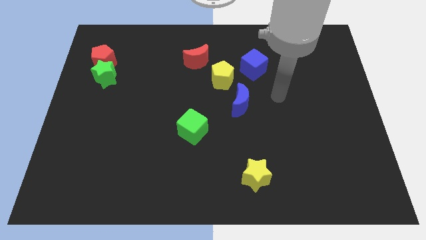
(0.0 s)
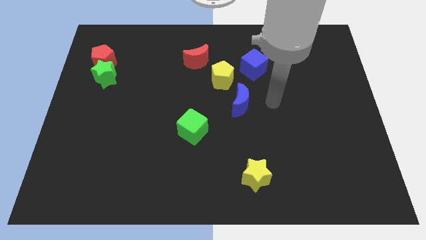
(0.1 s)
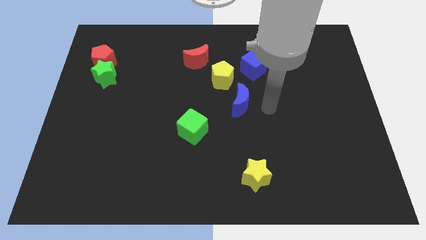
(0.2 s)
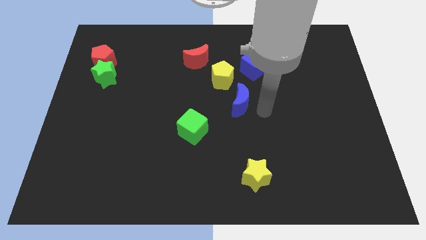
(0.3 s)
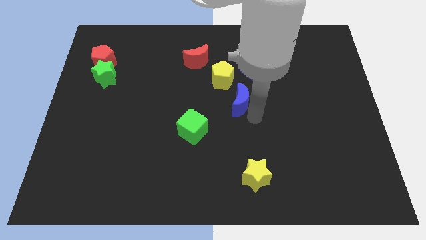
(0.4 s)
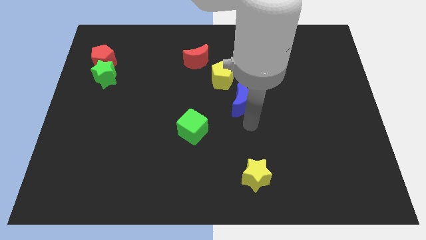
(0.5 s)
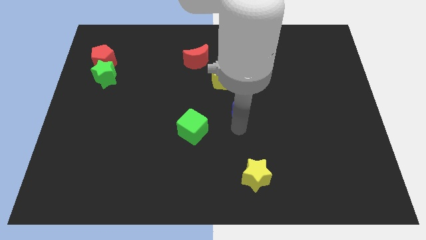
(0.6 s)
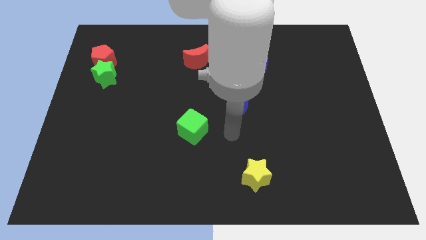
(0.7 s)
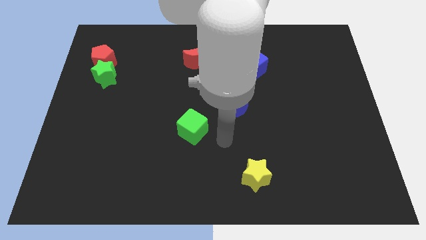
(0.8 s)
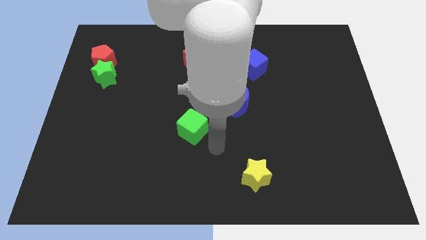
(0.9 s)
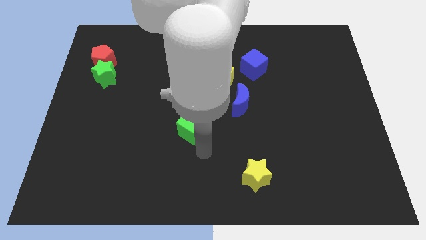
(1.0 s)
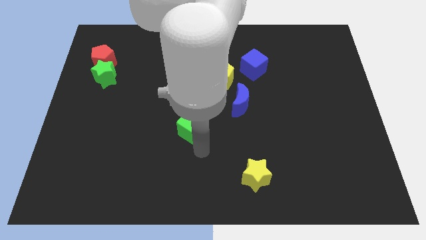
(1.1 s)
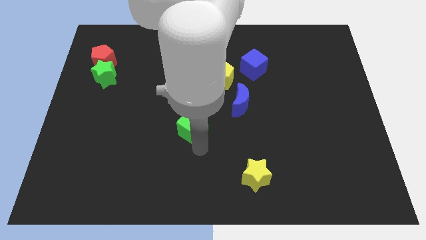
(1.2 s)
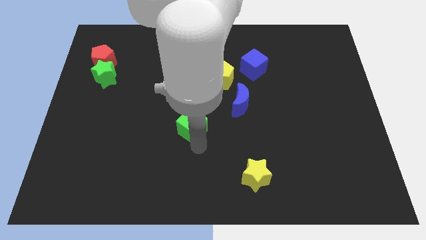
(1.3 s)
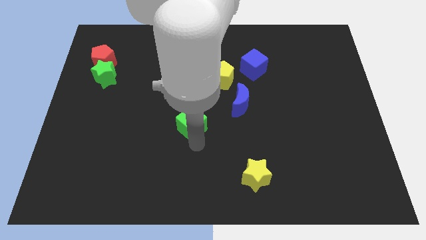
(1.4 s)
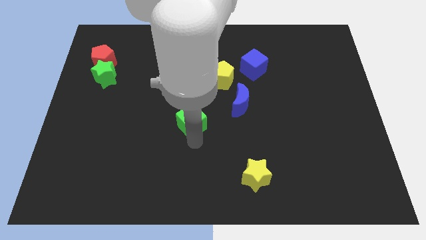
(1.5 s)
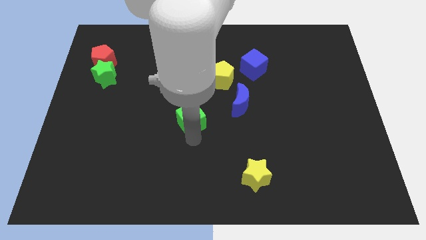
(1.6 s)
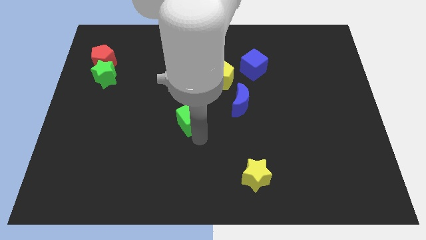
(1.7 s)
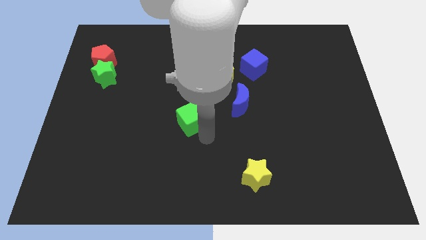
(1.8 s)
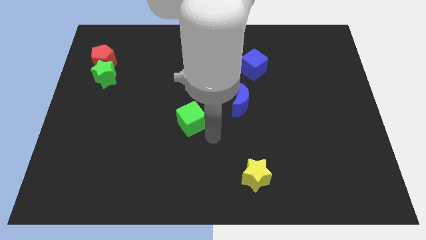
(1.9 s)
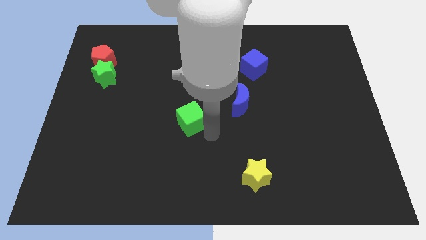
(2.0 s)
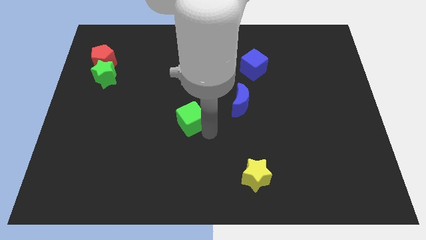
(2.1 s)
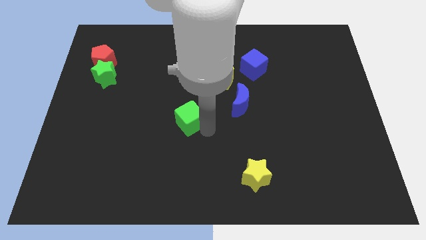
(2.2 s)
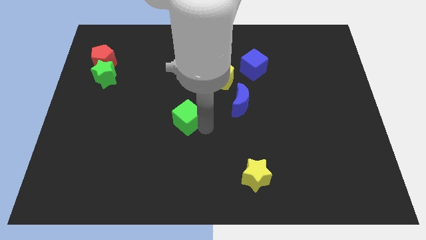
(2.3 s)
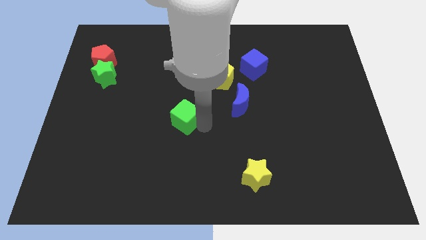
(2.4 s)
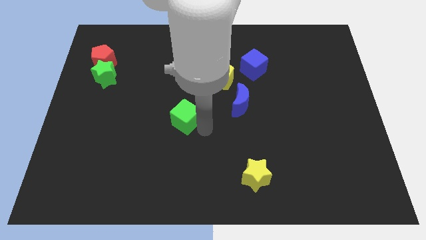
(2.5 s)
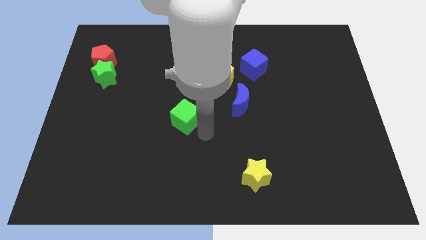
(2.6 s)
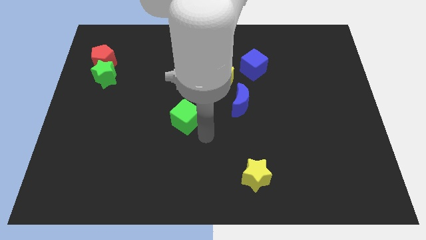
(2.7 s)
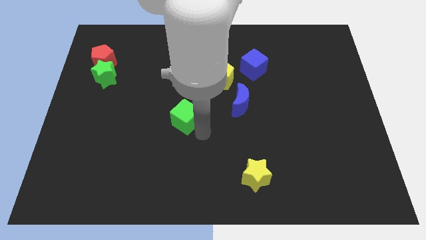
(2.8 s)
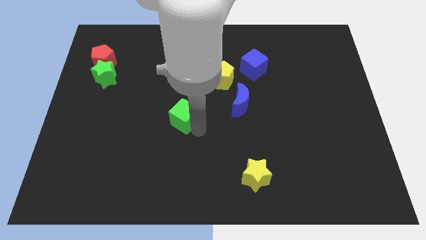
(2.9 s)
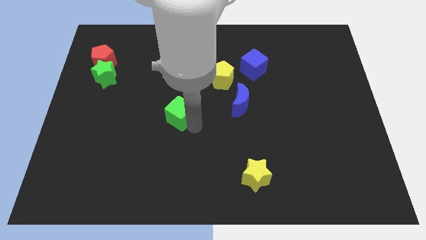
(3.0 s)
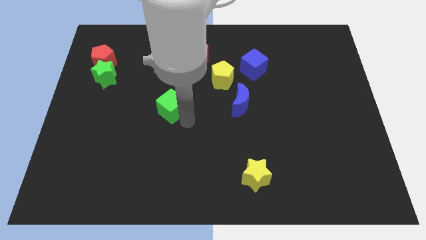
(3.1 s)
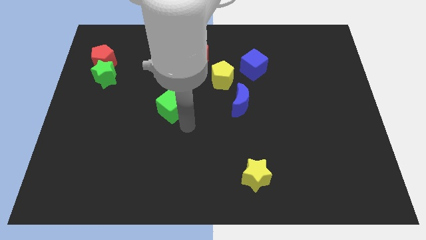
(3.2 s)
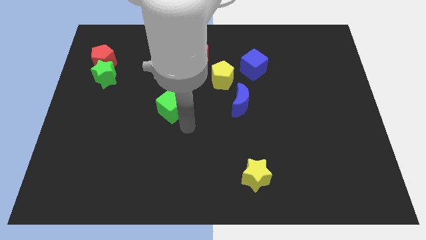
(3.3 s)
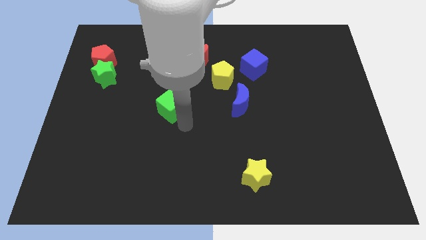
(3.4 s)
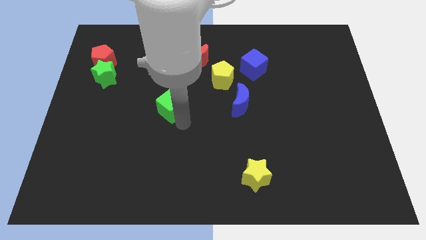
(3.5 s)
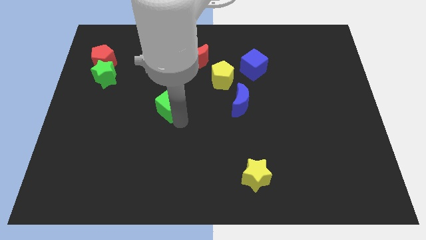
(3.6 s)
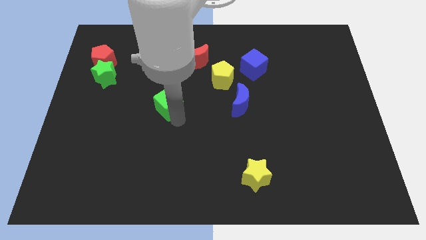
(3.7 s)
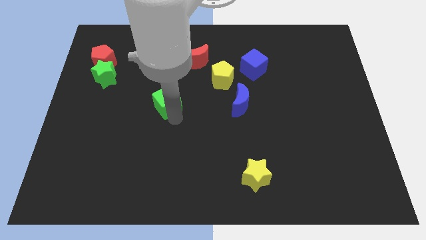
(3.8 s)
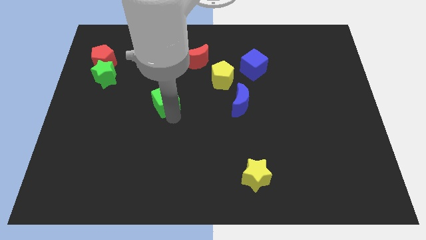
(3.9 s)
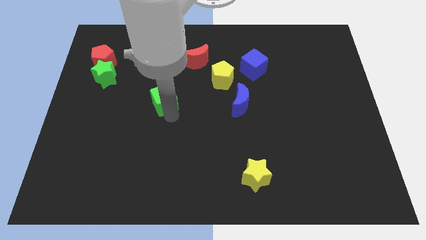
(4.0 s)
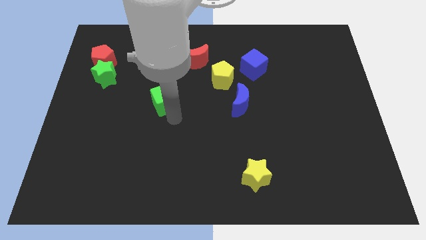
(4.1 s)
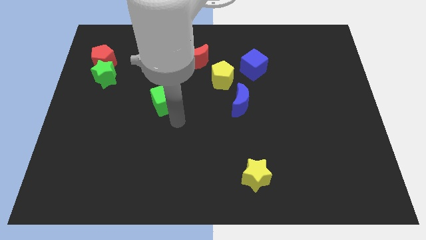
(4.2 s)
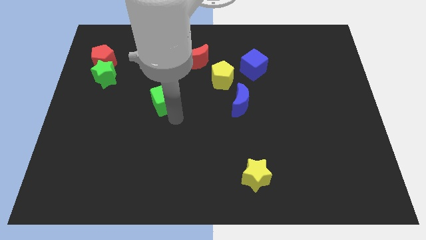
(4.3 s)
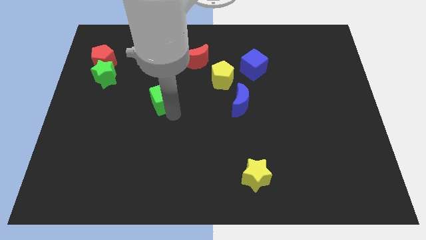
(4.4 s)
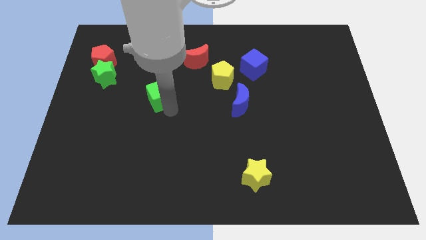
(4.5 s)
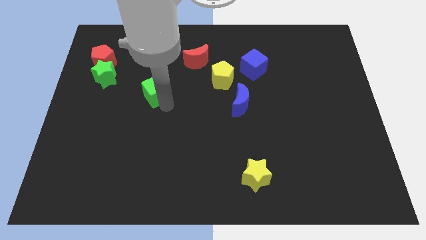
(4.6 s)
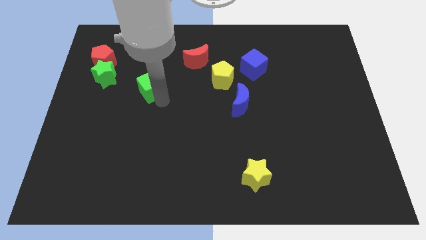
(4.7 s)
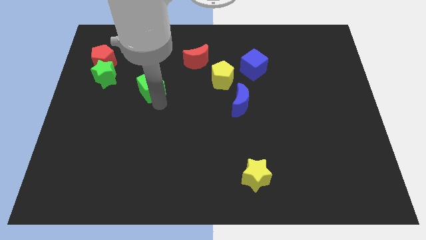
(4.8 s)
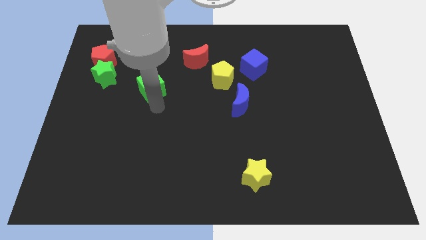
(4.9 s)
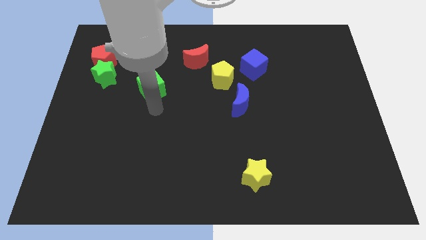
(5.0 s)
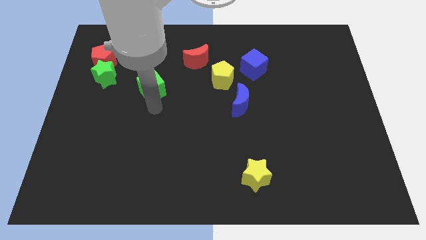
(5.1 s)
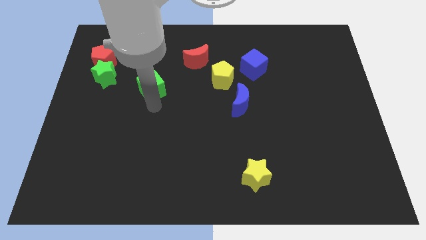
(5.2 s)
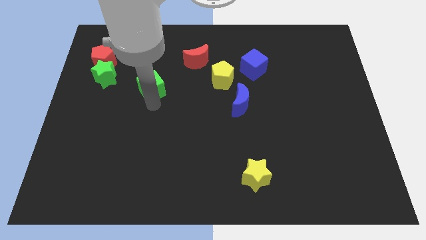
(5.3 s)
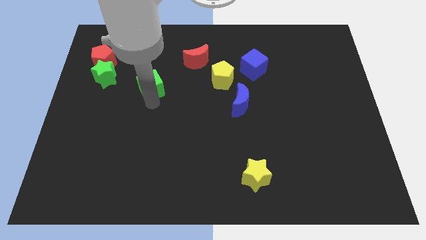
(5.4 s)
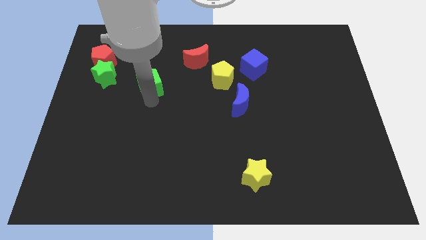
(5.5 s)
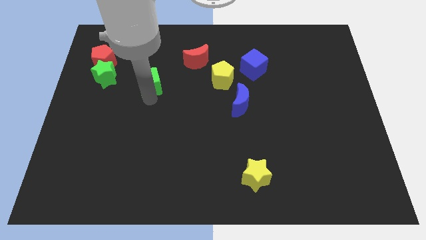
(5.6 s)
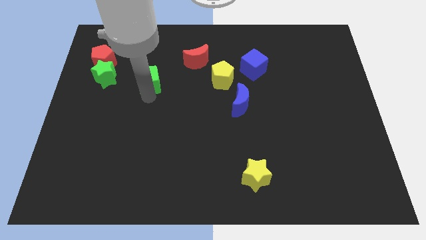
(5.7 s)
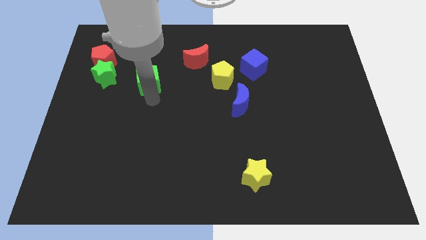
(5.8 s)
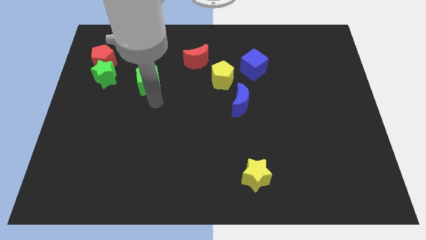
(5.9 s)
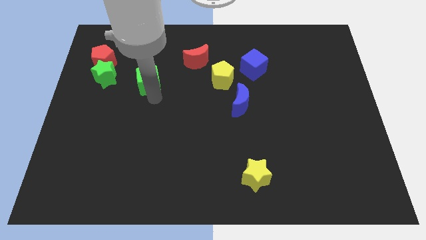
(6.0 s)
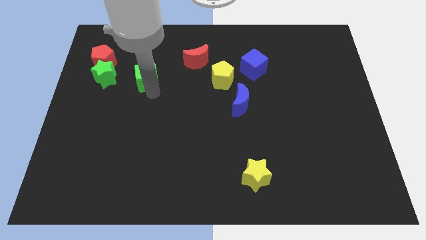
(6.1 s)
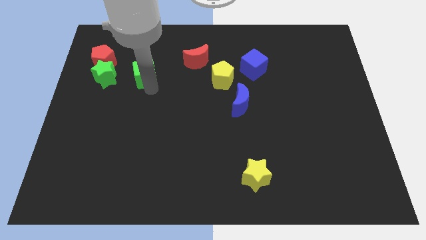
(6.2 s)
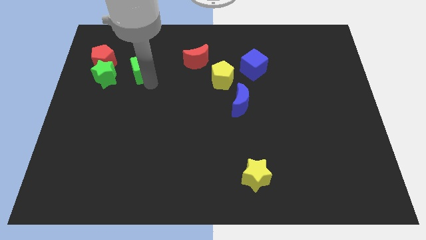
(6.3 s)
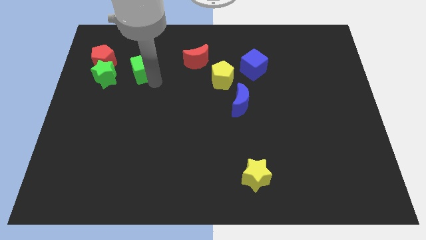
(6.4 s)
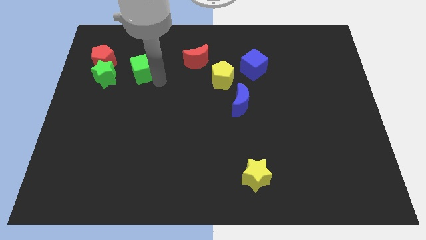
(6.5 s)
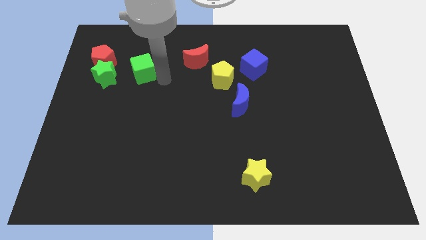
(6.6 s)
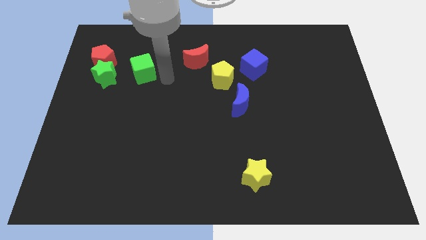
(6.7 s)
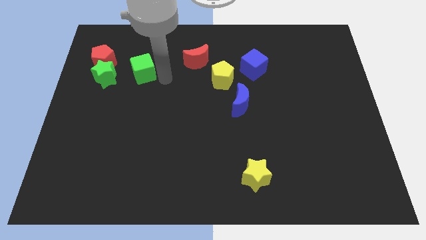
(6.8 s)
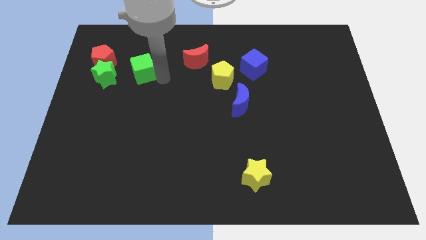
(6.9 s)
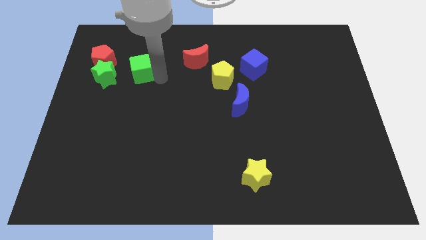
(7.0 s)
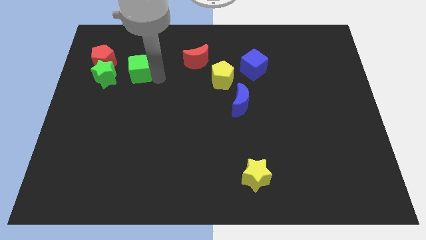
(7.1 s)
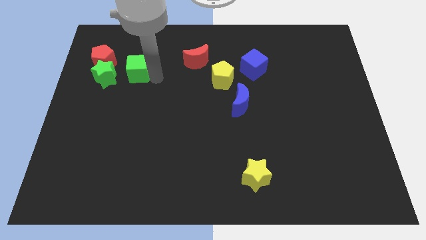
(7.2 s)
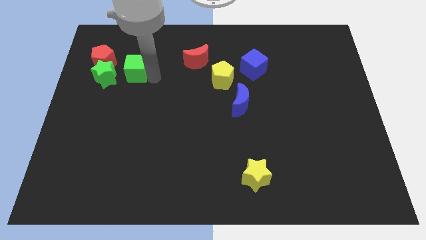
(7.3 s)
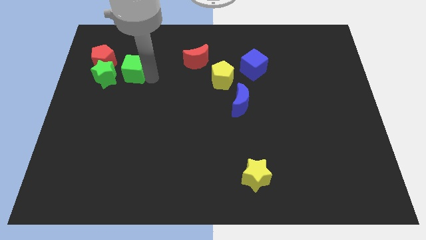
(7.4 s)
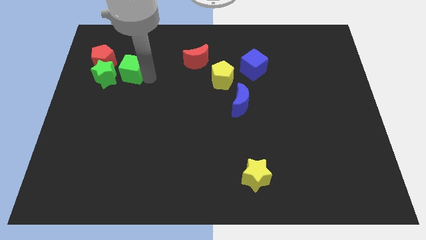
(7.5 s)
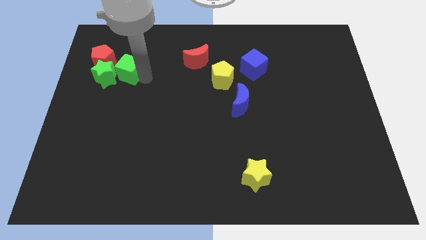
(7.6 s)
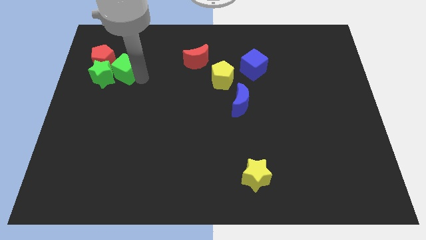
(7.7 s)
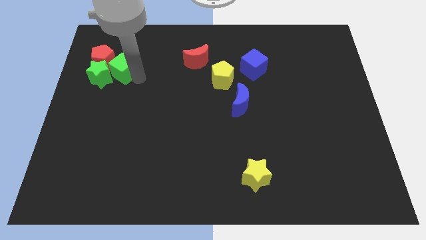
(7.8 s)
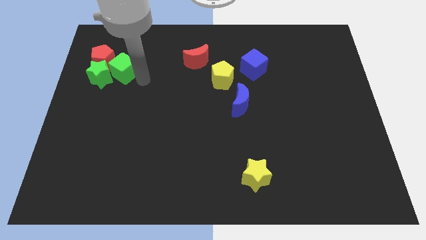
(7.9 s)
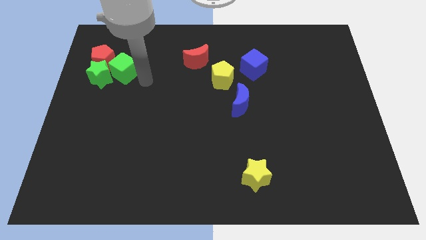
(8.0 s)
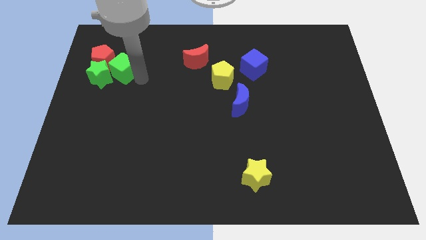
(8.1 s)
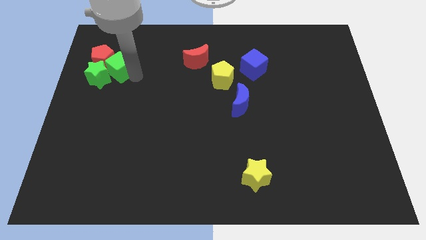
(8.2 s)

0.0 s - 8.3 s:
push the green cube next to the red pentagon
